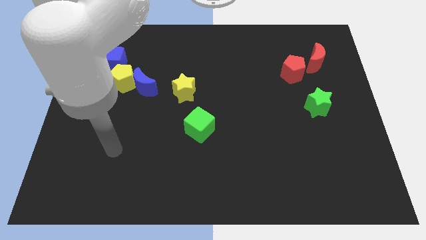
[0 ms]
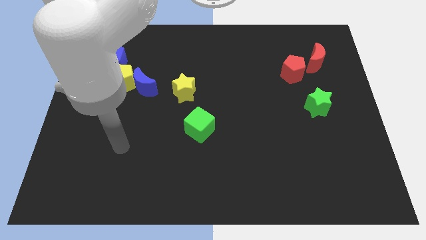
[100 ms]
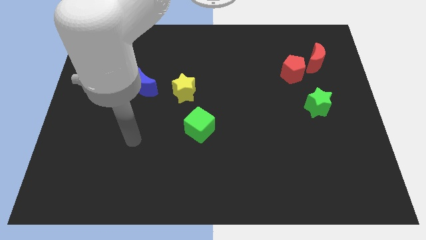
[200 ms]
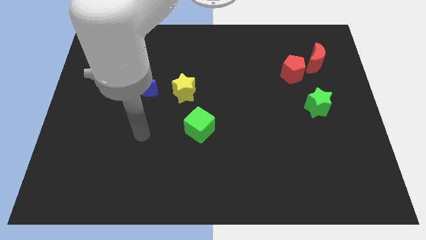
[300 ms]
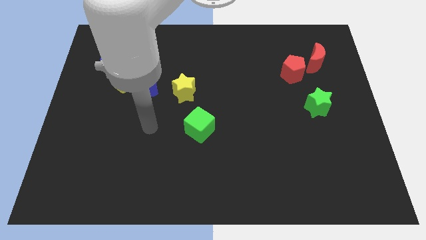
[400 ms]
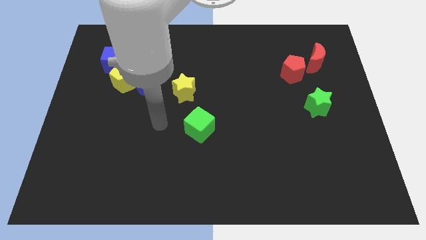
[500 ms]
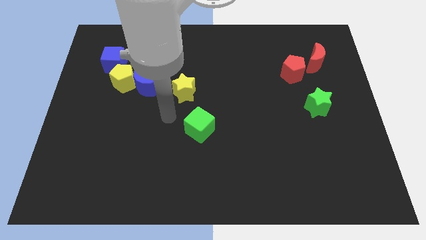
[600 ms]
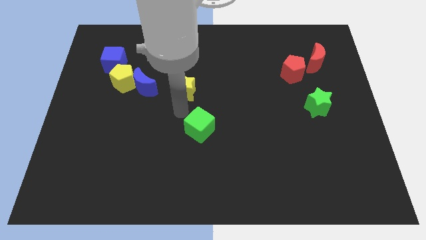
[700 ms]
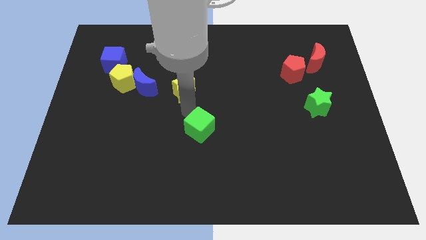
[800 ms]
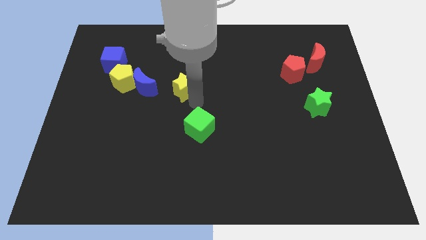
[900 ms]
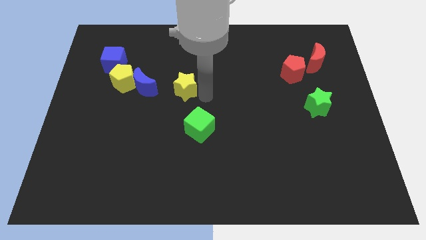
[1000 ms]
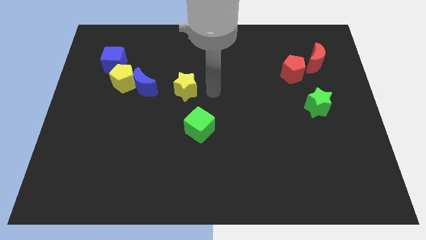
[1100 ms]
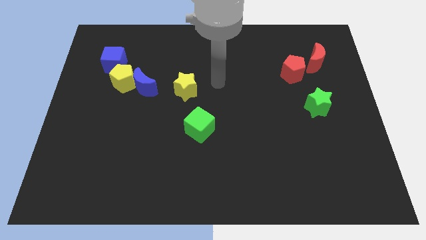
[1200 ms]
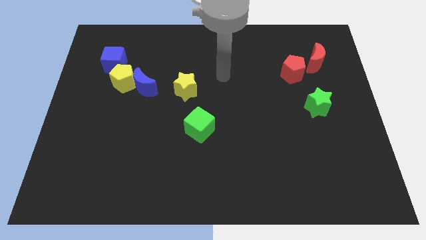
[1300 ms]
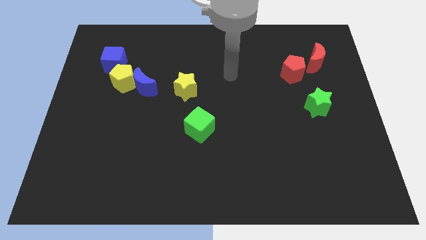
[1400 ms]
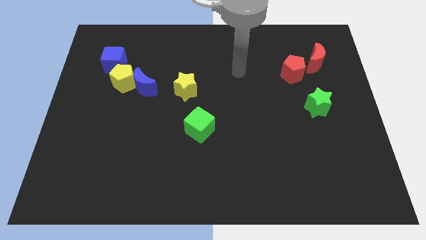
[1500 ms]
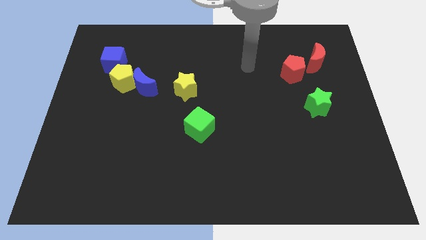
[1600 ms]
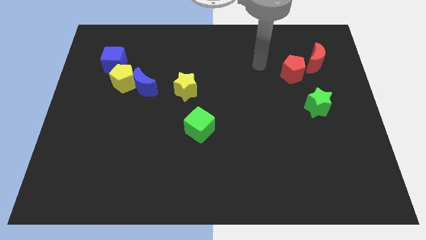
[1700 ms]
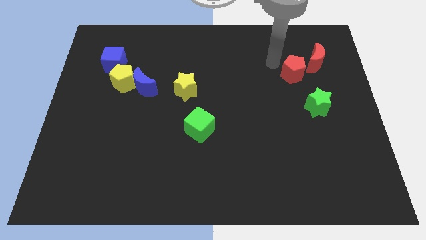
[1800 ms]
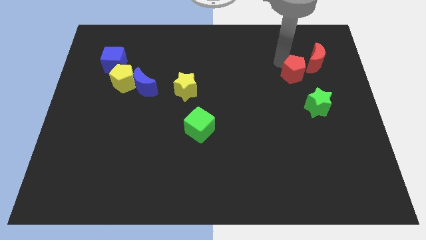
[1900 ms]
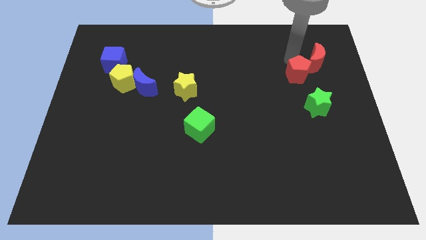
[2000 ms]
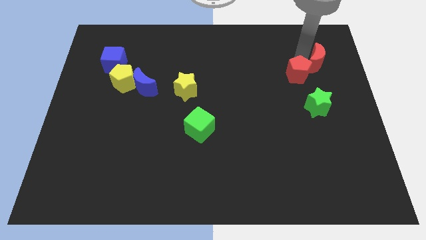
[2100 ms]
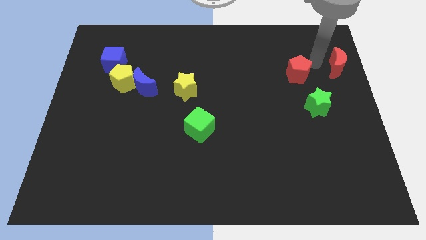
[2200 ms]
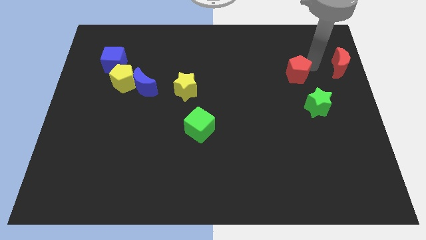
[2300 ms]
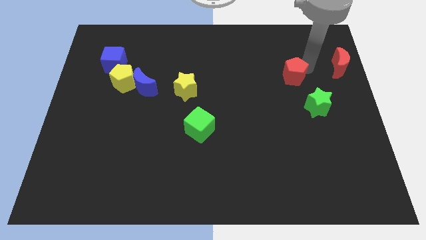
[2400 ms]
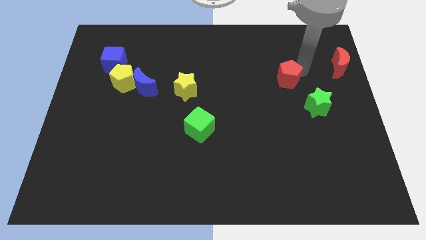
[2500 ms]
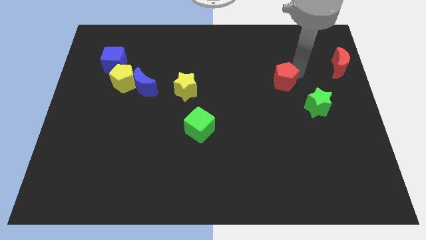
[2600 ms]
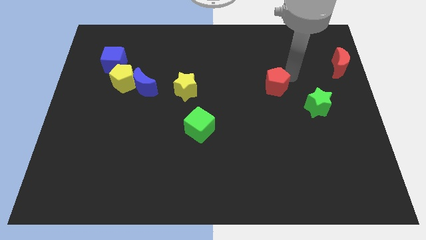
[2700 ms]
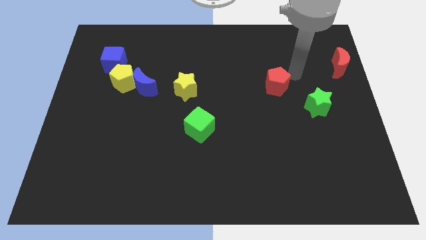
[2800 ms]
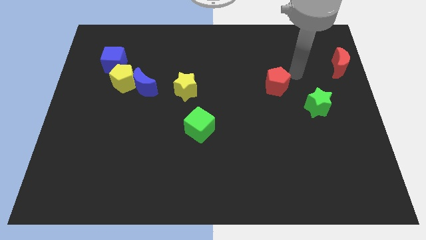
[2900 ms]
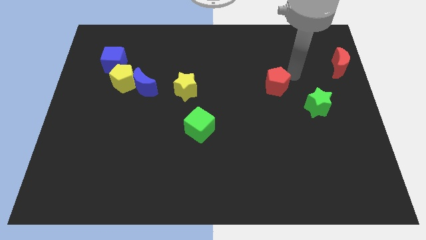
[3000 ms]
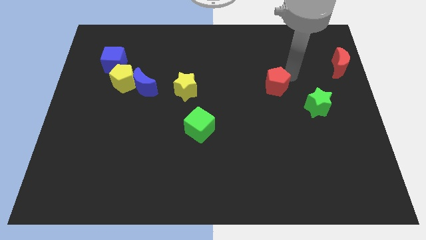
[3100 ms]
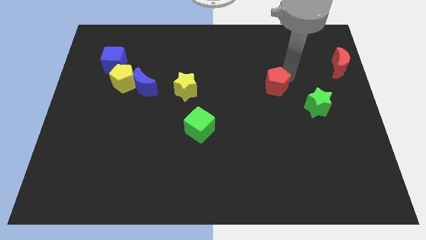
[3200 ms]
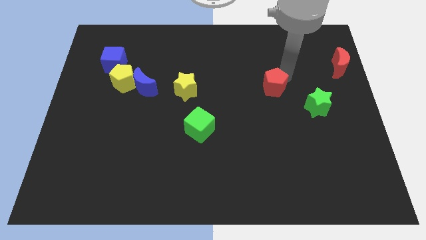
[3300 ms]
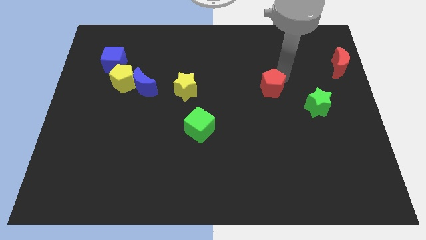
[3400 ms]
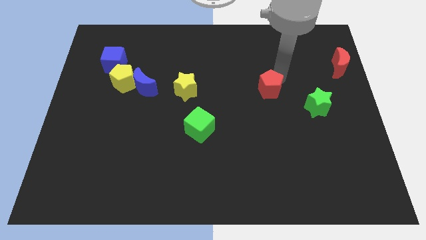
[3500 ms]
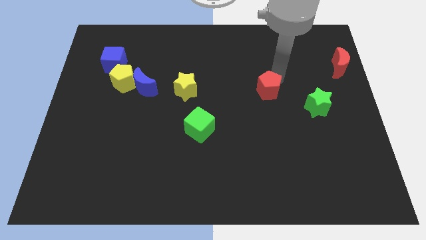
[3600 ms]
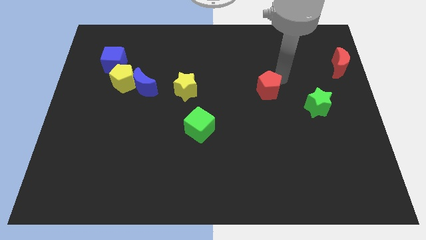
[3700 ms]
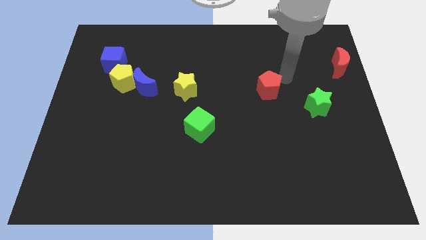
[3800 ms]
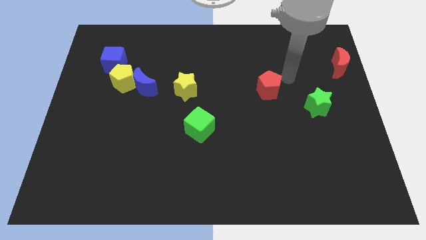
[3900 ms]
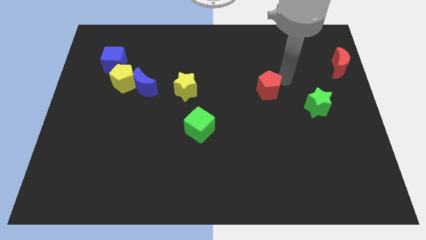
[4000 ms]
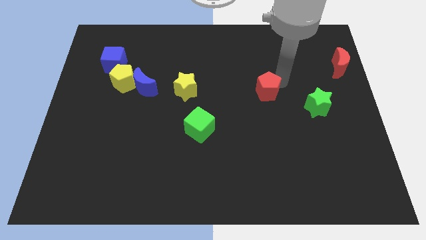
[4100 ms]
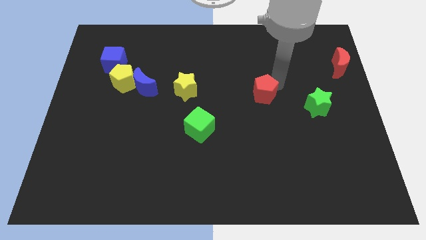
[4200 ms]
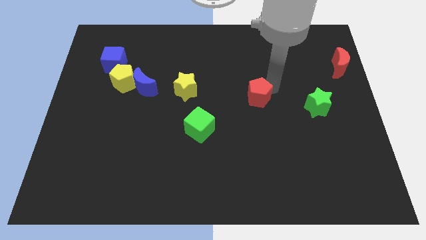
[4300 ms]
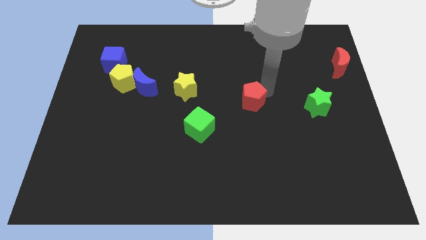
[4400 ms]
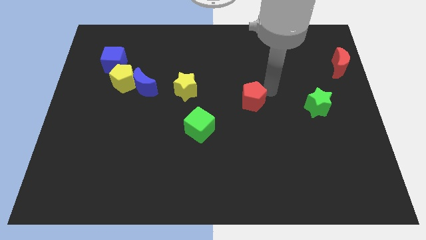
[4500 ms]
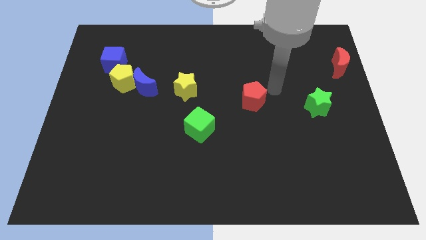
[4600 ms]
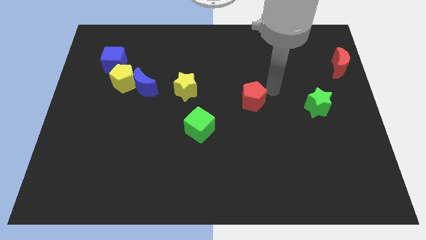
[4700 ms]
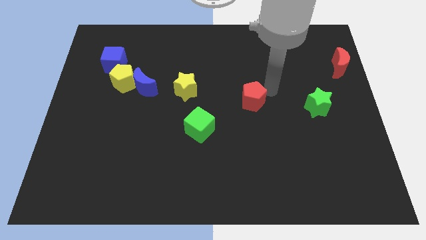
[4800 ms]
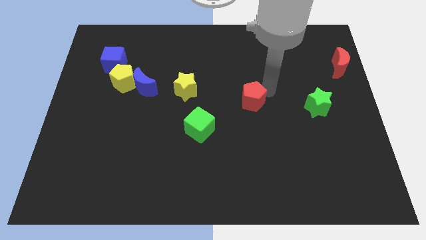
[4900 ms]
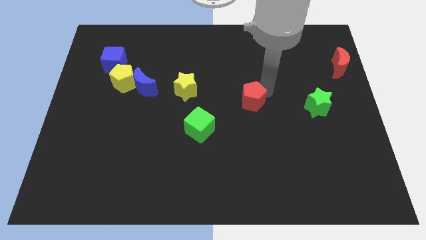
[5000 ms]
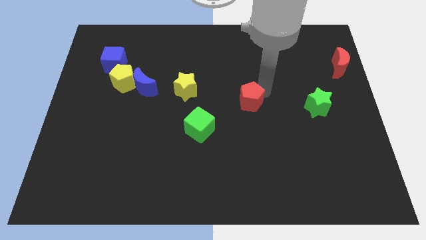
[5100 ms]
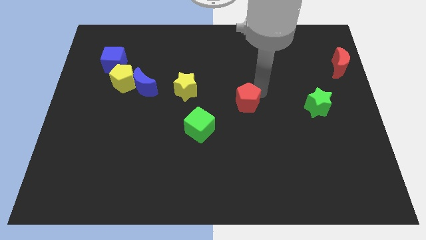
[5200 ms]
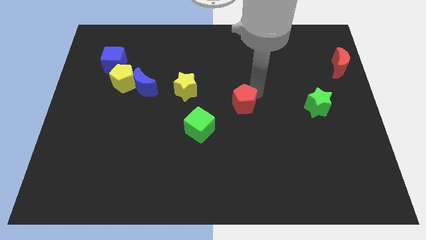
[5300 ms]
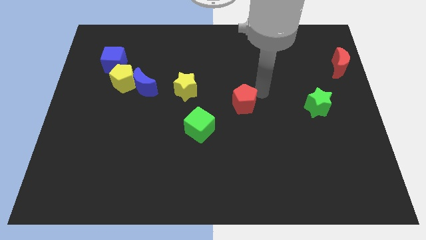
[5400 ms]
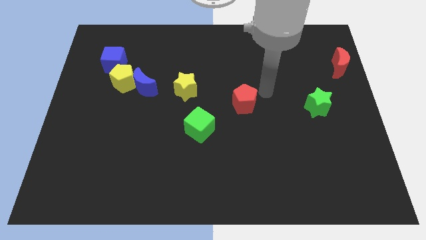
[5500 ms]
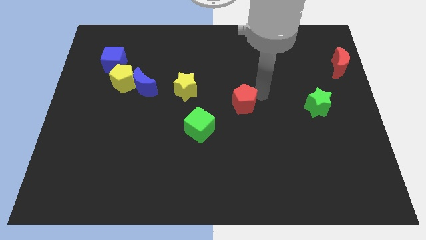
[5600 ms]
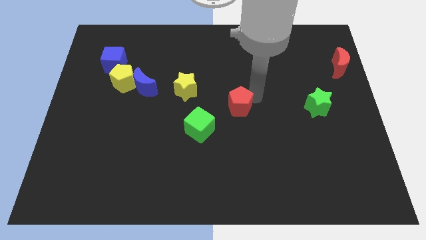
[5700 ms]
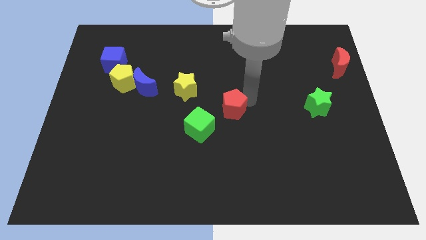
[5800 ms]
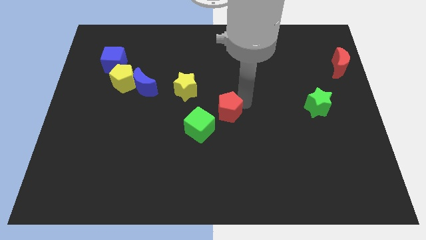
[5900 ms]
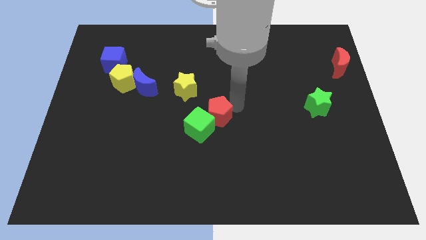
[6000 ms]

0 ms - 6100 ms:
move the red pentagon close to the green cube

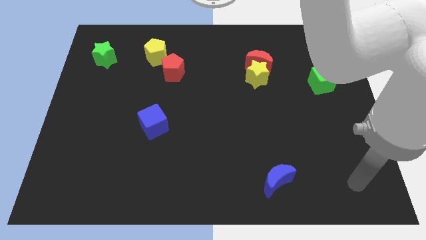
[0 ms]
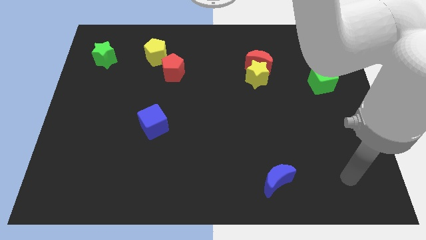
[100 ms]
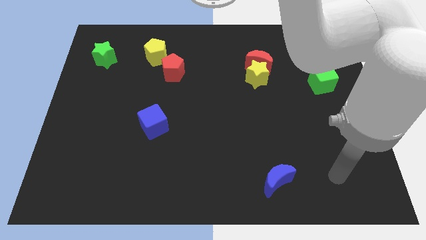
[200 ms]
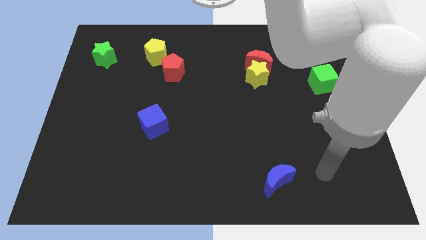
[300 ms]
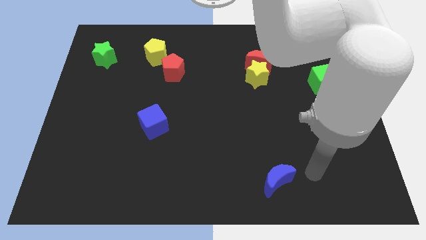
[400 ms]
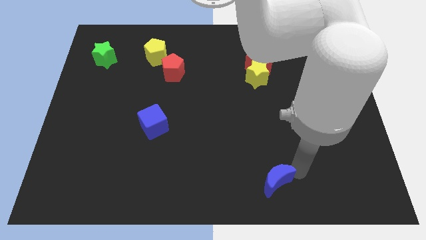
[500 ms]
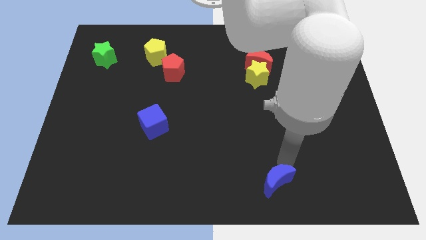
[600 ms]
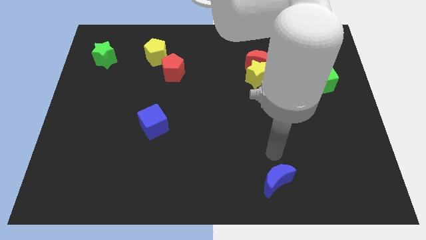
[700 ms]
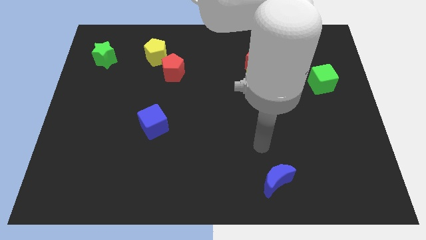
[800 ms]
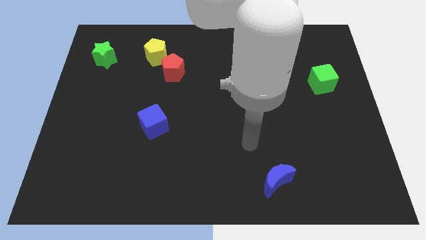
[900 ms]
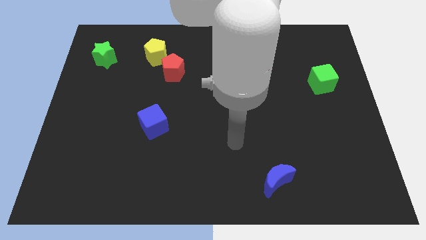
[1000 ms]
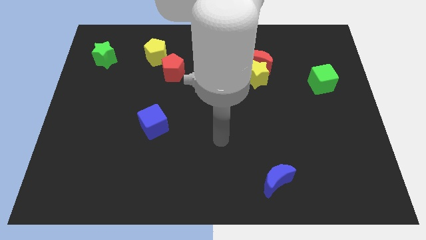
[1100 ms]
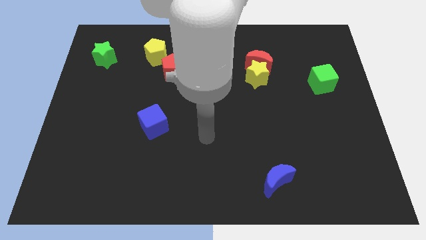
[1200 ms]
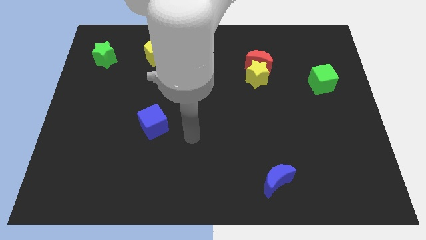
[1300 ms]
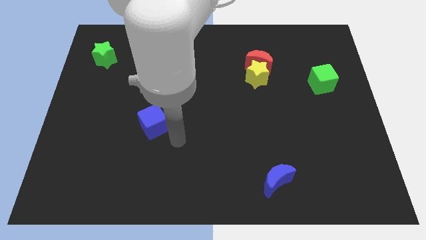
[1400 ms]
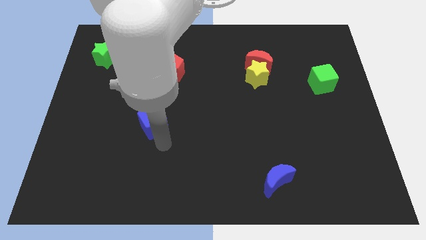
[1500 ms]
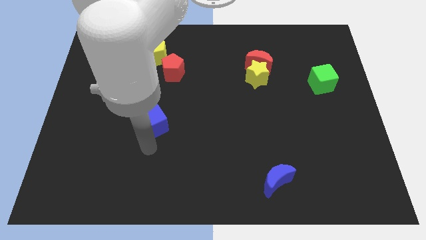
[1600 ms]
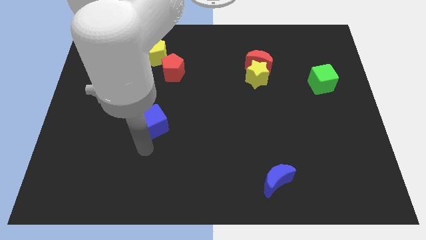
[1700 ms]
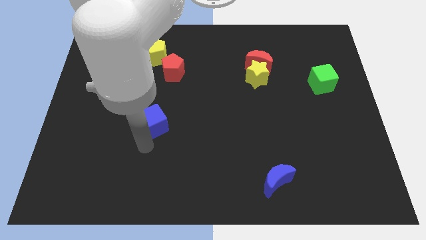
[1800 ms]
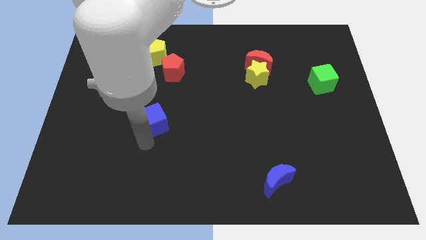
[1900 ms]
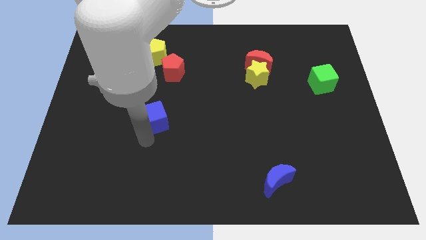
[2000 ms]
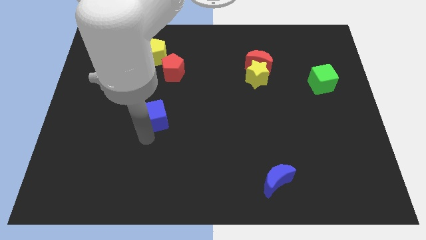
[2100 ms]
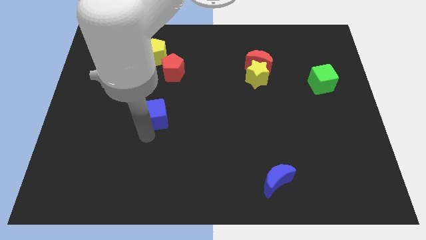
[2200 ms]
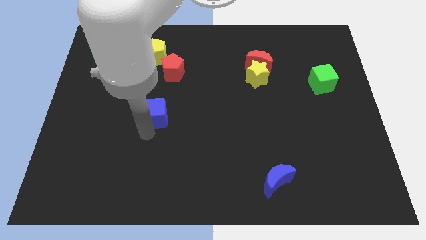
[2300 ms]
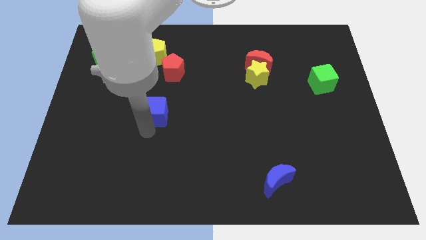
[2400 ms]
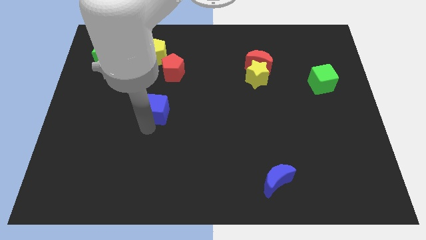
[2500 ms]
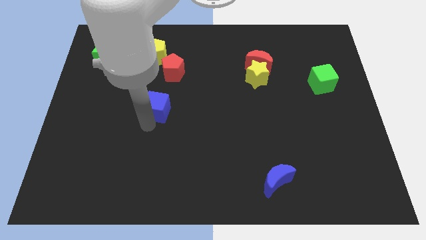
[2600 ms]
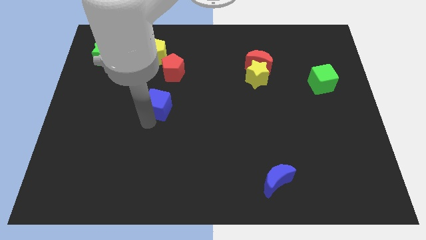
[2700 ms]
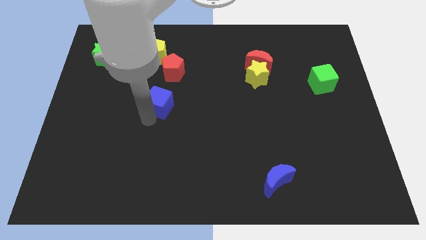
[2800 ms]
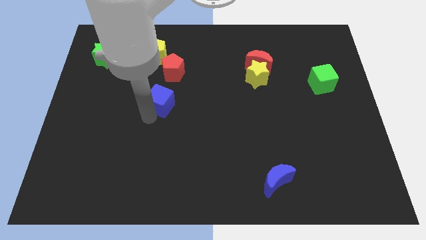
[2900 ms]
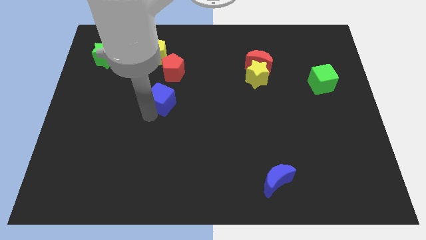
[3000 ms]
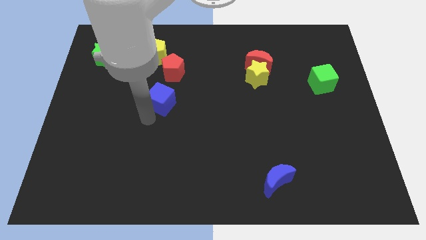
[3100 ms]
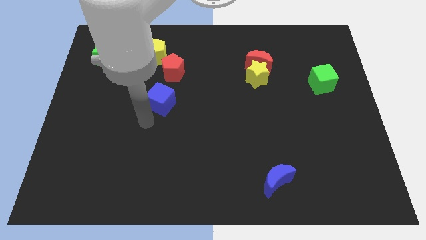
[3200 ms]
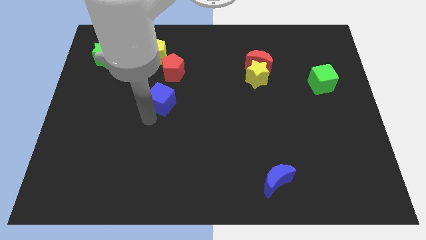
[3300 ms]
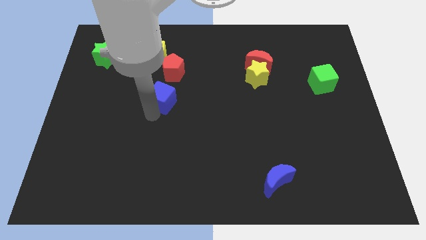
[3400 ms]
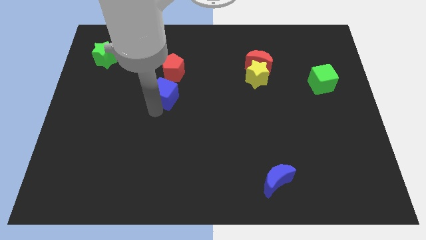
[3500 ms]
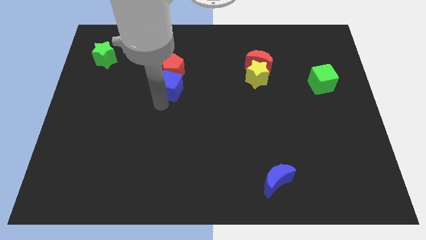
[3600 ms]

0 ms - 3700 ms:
put the blue cube to the red pentagon
